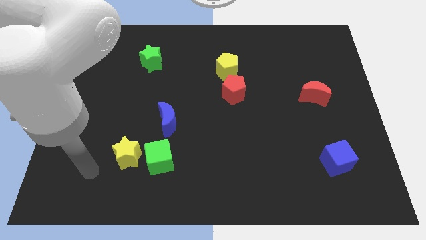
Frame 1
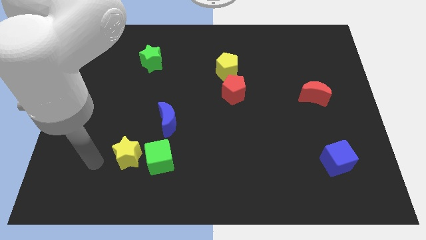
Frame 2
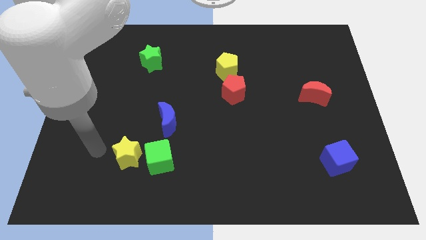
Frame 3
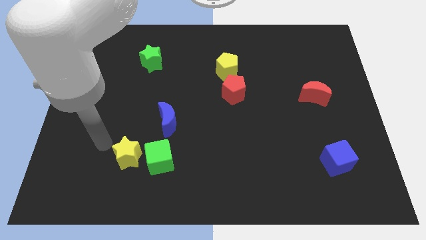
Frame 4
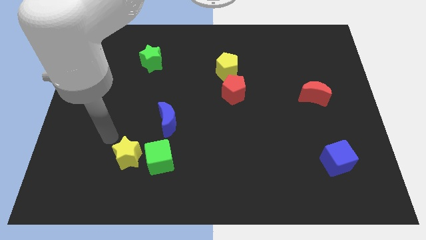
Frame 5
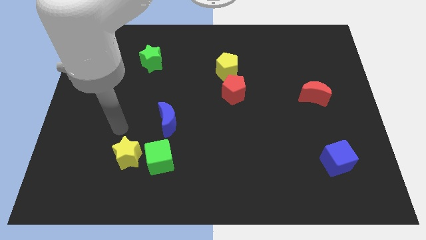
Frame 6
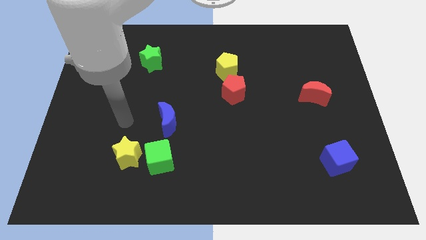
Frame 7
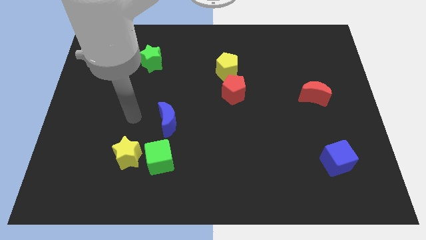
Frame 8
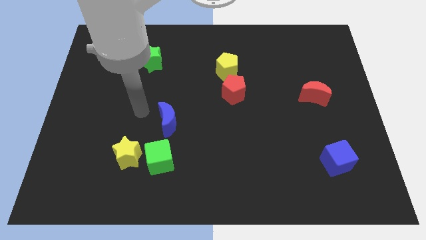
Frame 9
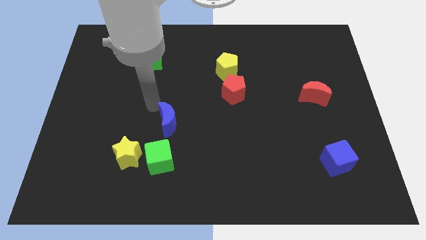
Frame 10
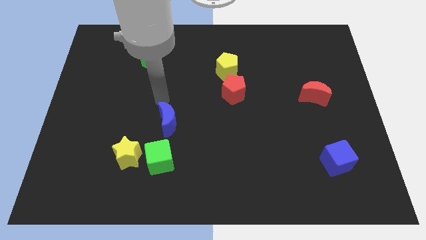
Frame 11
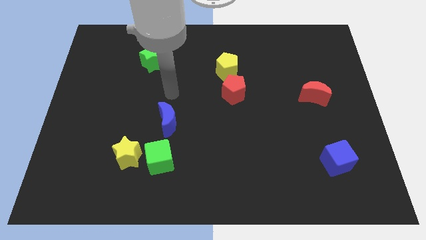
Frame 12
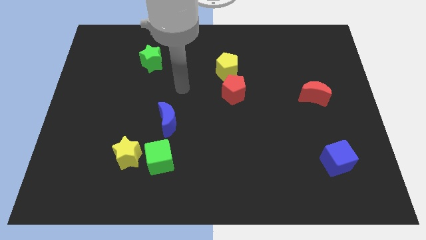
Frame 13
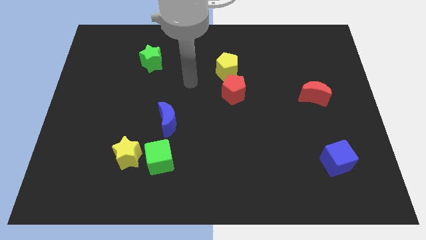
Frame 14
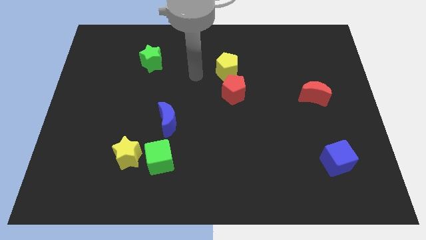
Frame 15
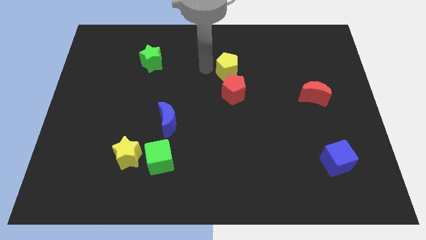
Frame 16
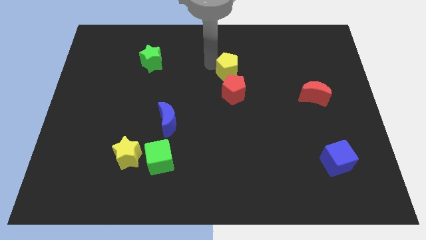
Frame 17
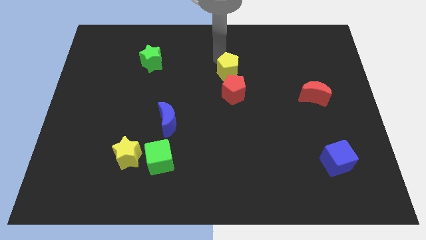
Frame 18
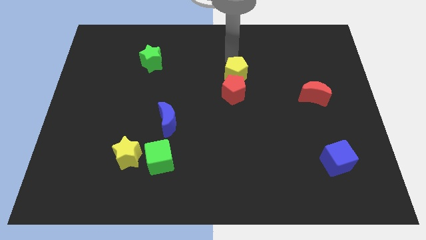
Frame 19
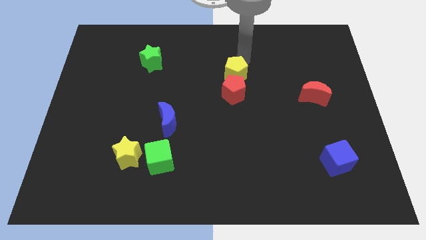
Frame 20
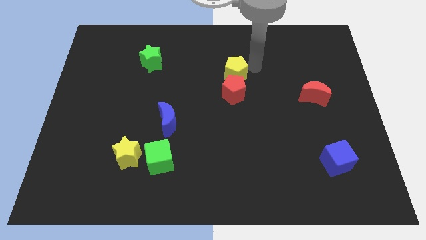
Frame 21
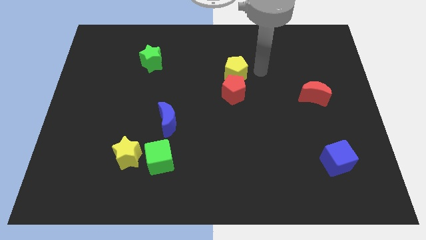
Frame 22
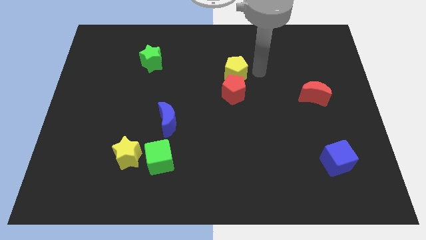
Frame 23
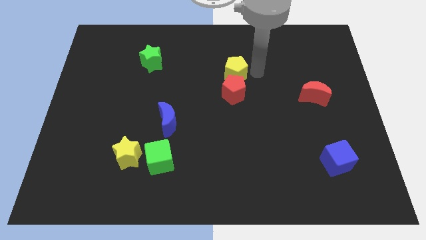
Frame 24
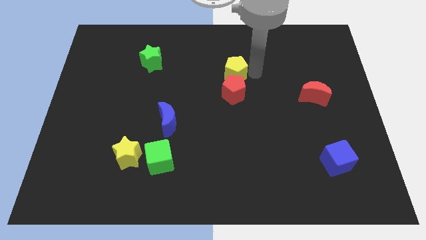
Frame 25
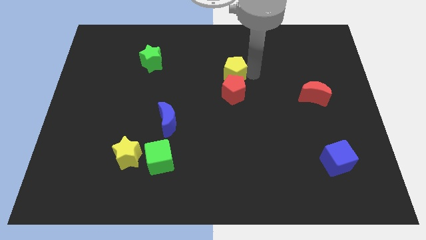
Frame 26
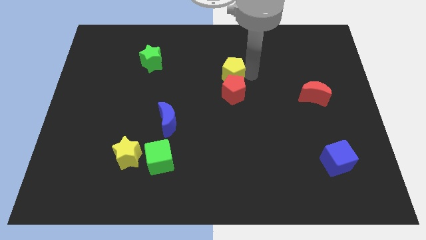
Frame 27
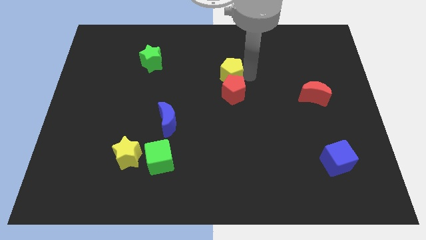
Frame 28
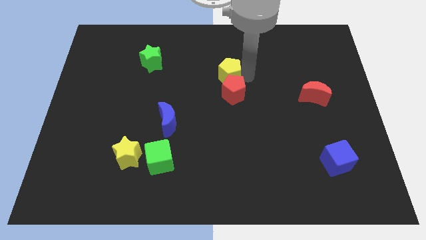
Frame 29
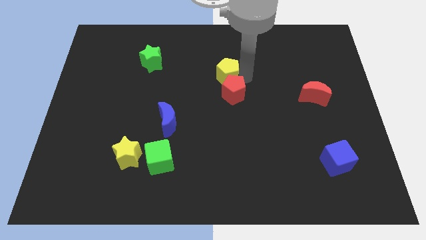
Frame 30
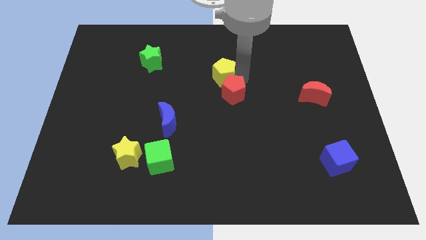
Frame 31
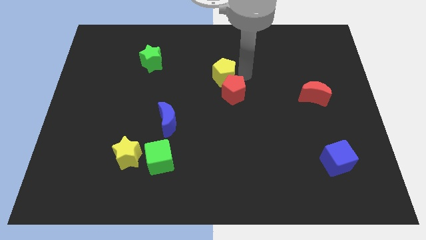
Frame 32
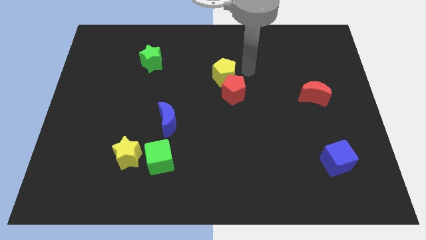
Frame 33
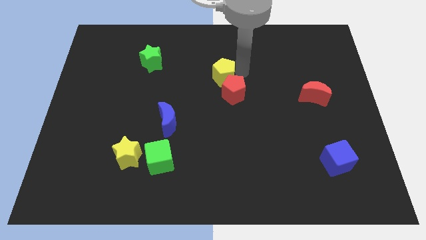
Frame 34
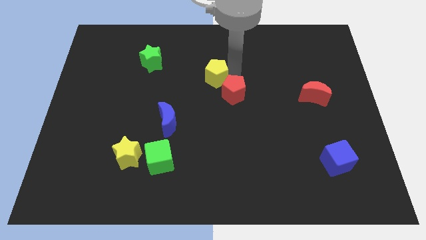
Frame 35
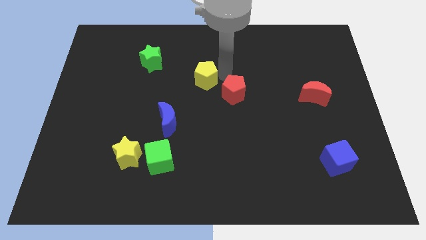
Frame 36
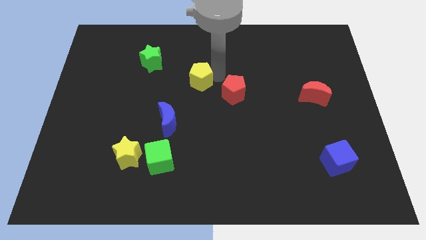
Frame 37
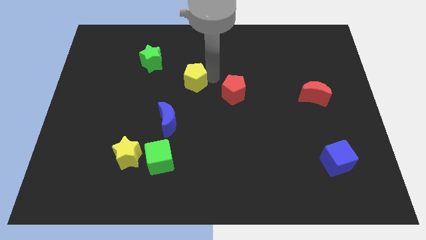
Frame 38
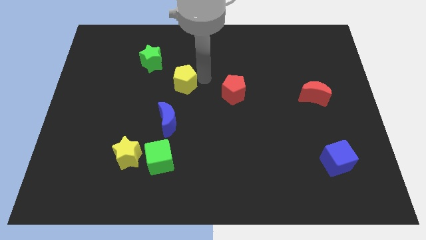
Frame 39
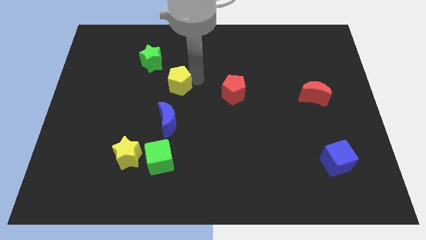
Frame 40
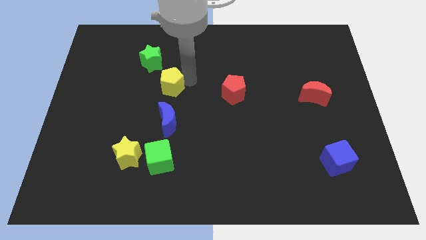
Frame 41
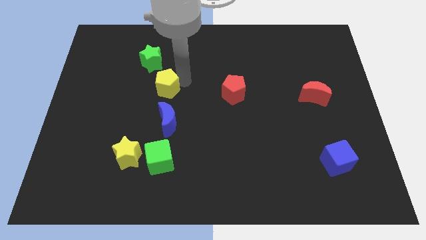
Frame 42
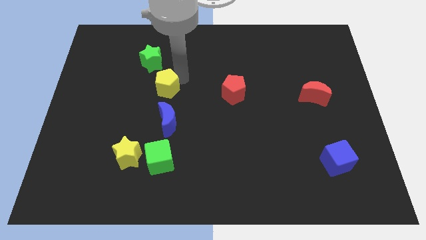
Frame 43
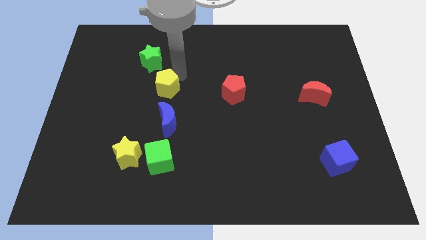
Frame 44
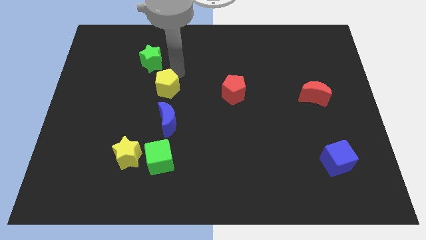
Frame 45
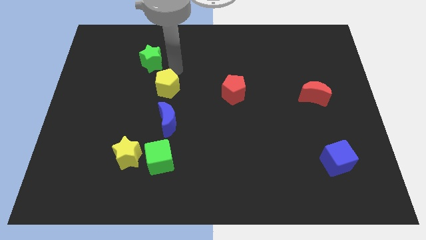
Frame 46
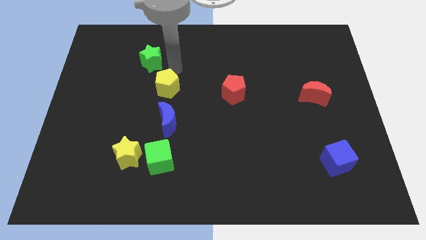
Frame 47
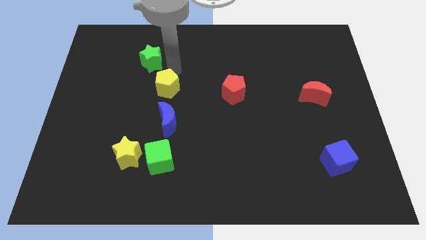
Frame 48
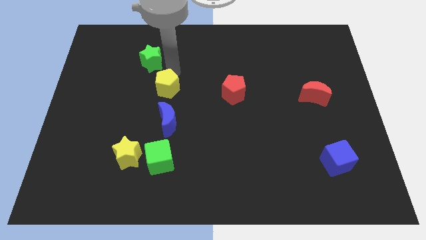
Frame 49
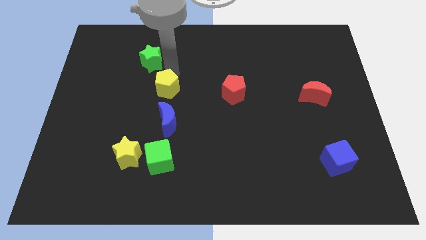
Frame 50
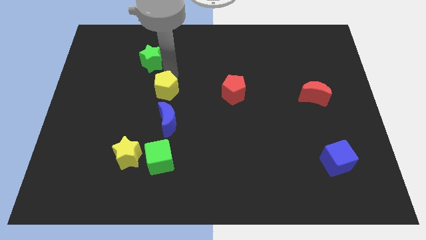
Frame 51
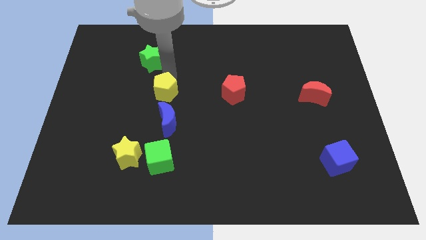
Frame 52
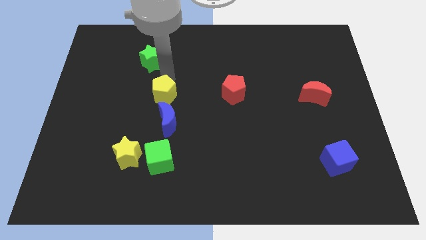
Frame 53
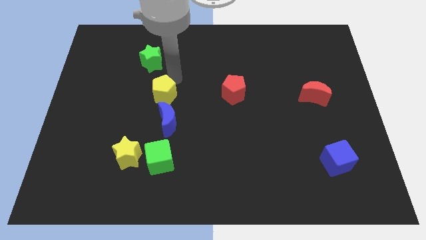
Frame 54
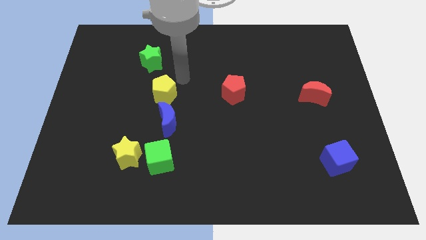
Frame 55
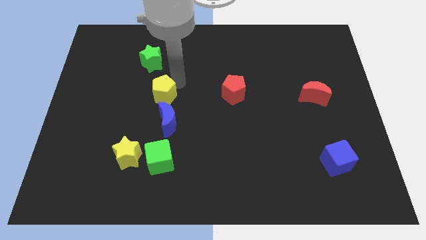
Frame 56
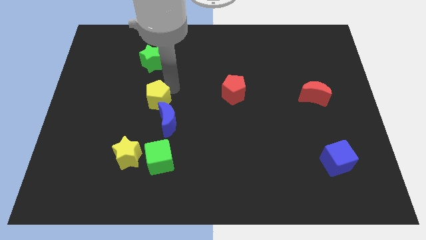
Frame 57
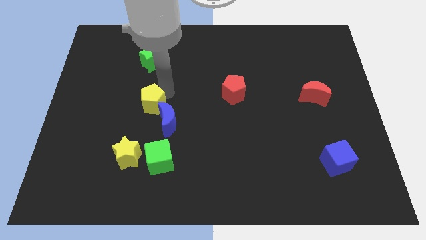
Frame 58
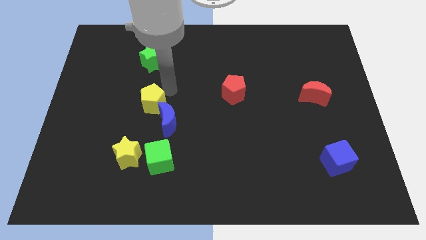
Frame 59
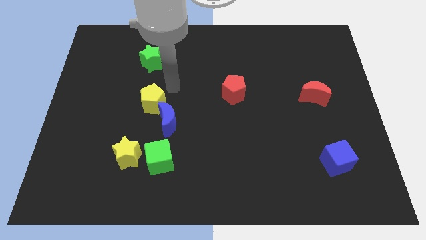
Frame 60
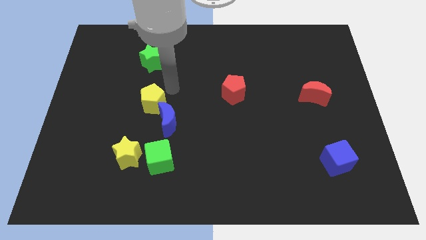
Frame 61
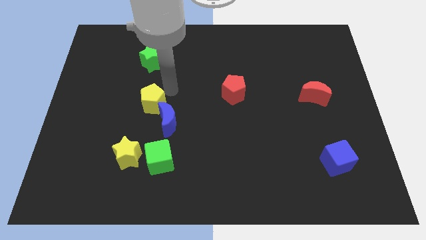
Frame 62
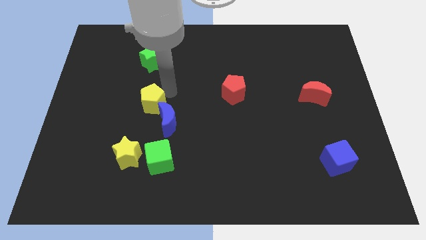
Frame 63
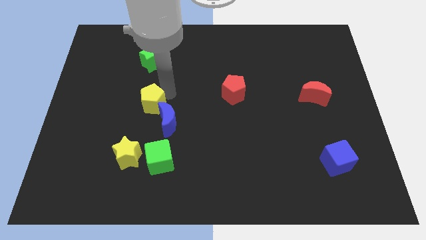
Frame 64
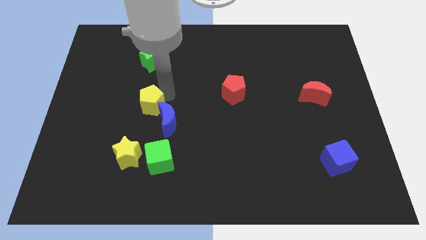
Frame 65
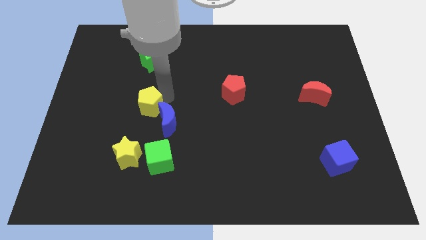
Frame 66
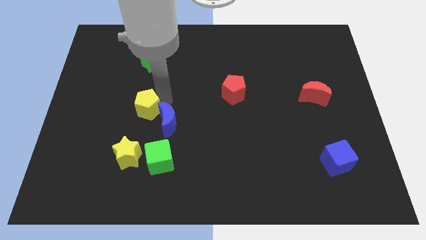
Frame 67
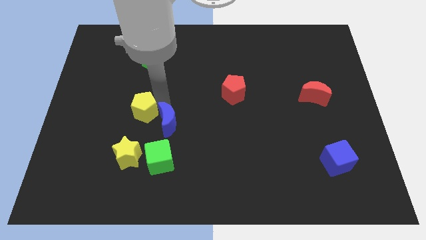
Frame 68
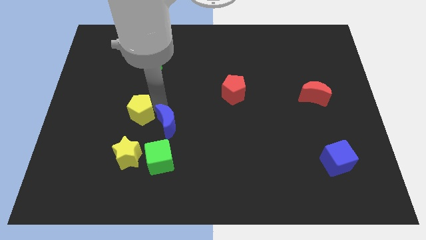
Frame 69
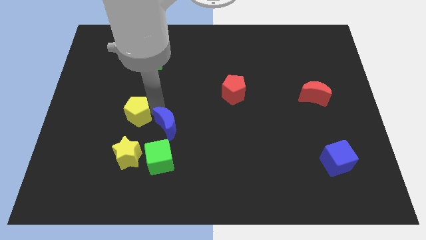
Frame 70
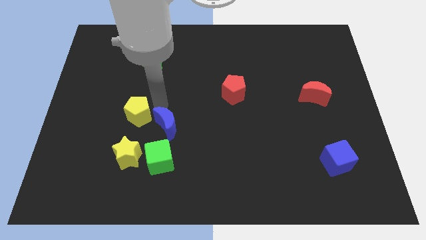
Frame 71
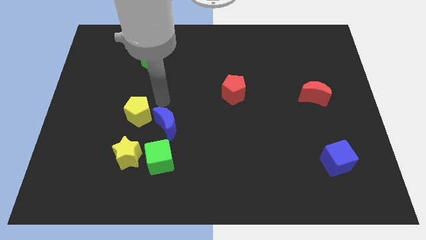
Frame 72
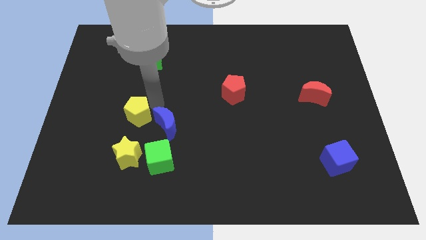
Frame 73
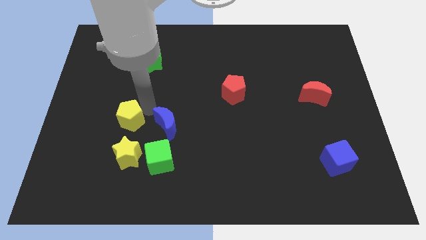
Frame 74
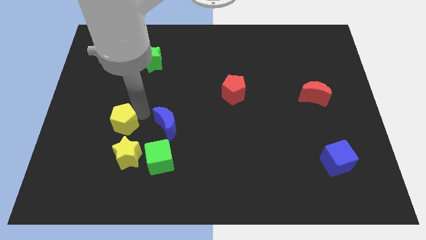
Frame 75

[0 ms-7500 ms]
push the yellow pentagon to the top left side of the yellow star

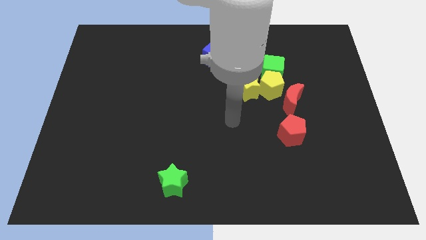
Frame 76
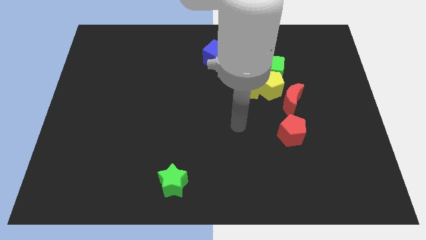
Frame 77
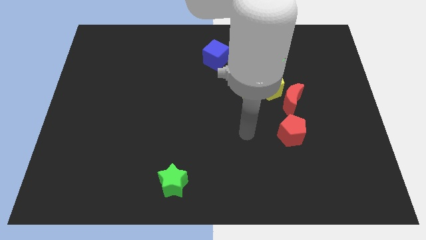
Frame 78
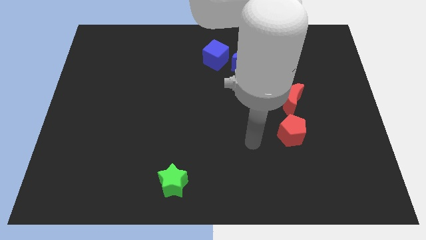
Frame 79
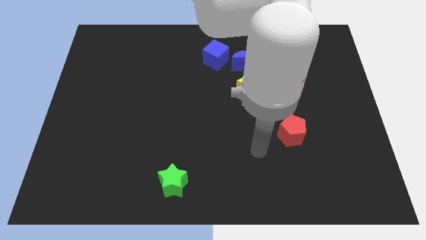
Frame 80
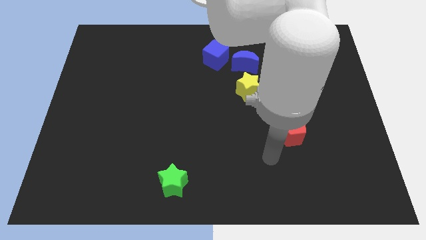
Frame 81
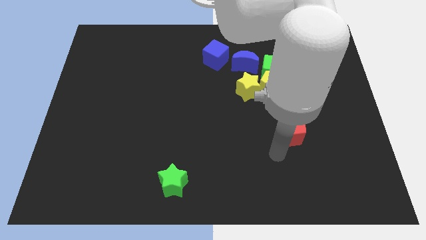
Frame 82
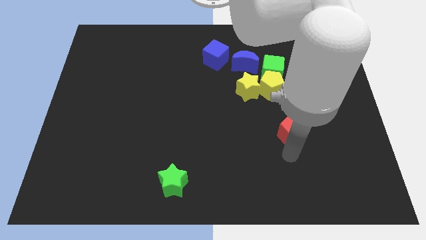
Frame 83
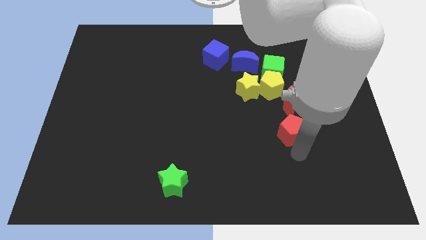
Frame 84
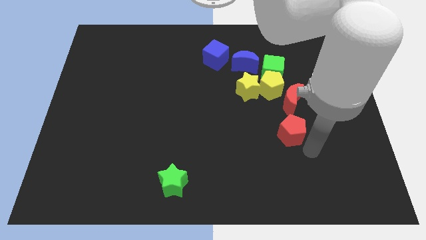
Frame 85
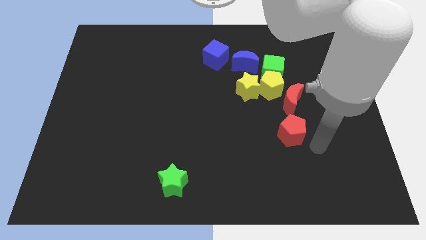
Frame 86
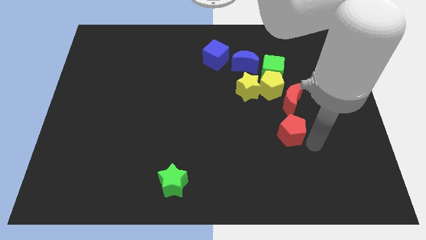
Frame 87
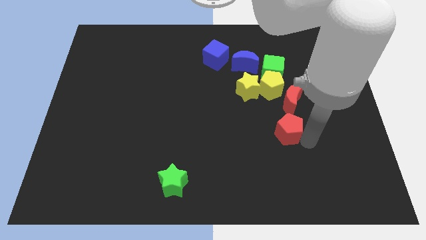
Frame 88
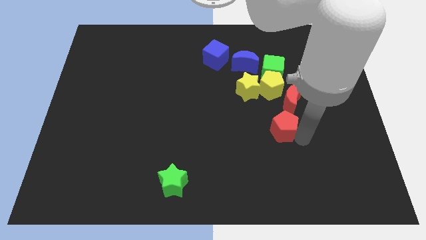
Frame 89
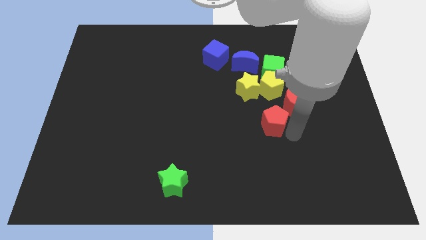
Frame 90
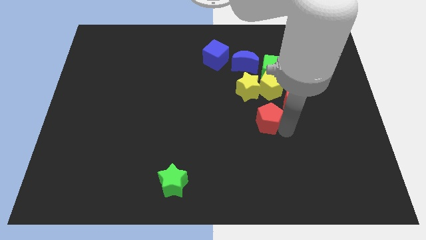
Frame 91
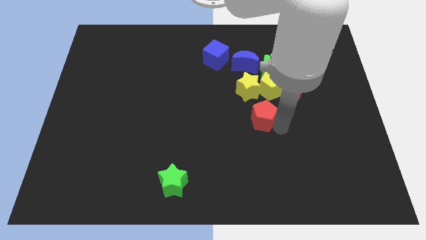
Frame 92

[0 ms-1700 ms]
slide the red pentagon to the left of the red moon
